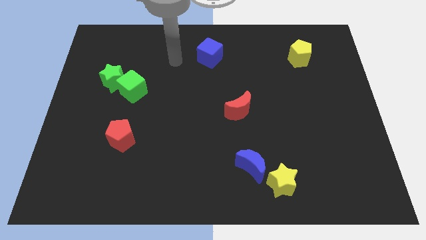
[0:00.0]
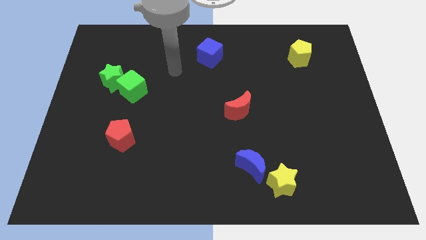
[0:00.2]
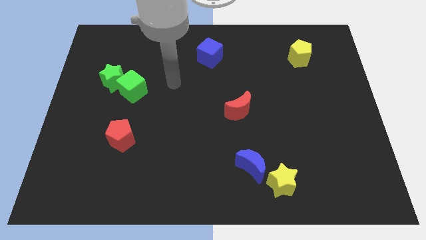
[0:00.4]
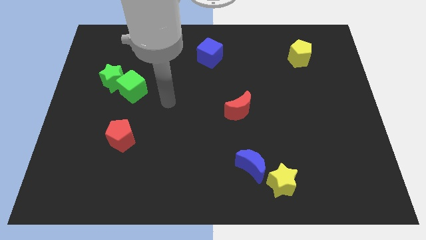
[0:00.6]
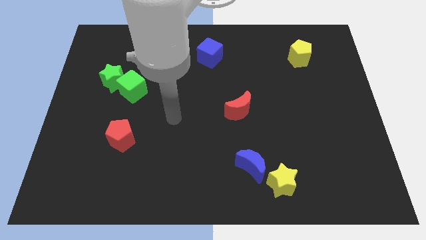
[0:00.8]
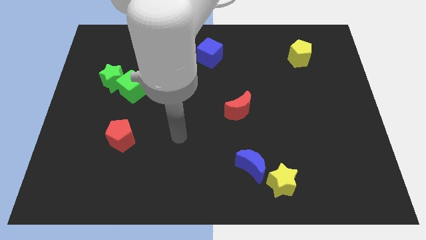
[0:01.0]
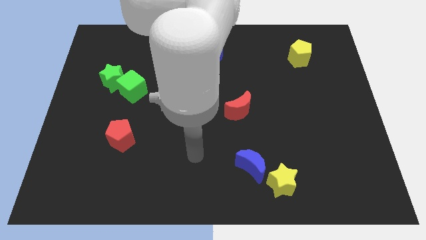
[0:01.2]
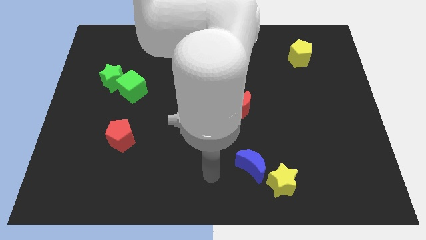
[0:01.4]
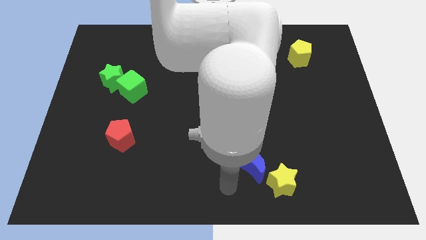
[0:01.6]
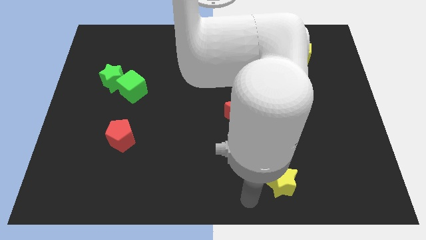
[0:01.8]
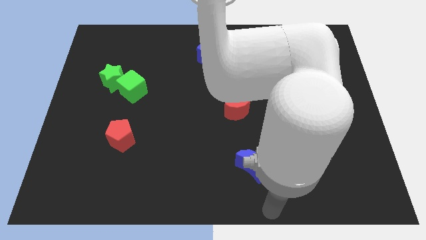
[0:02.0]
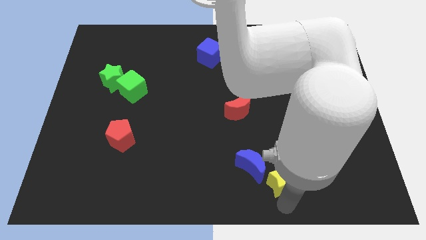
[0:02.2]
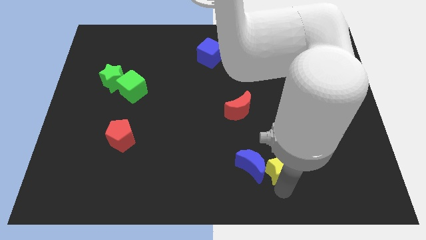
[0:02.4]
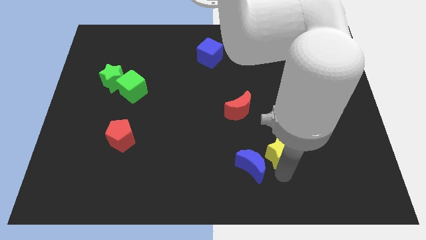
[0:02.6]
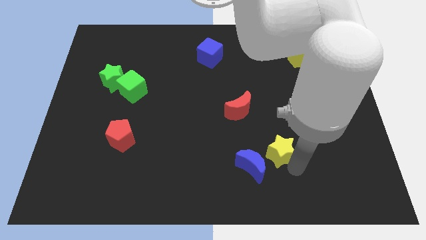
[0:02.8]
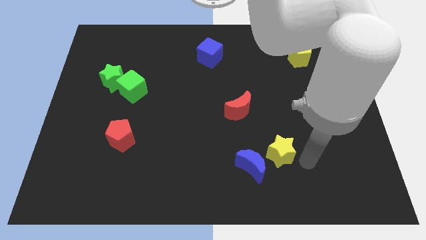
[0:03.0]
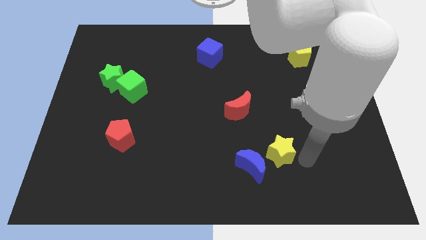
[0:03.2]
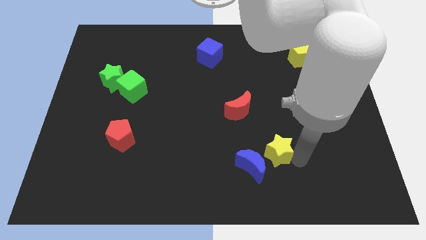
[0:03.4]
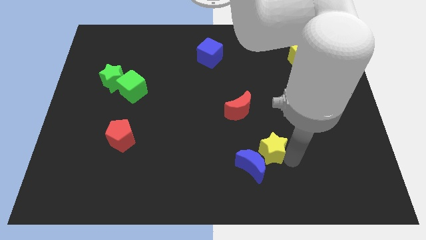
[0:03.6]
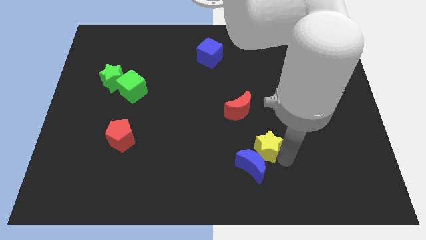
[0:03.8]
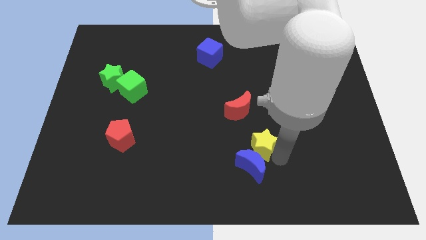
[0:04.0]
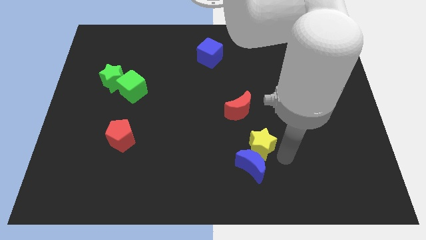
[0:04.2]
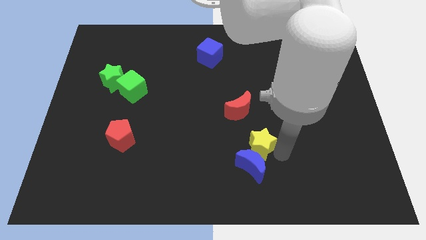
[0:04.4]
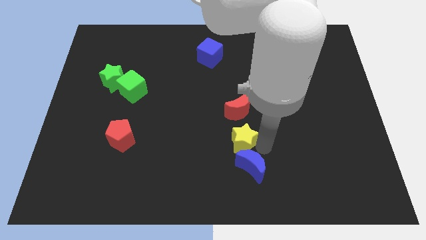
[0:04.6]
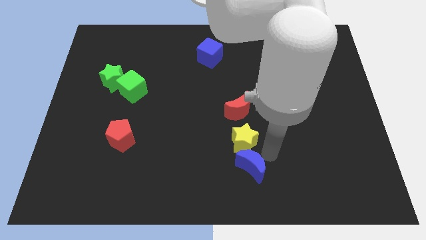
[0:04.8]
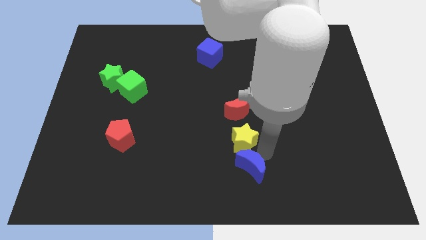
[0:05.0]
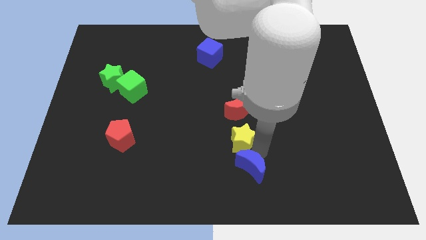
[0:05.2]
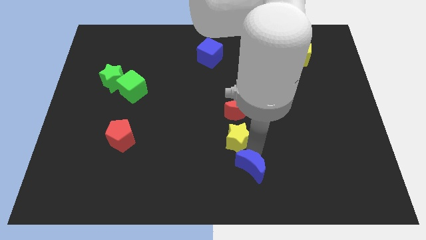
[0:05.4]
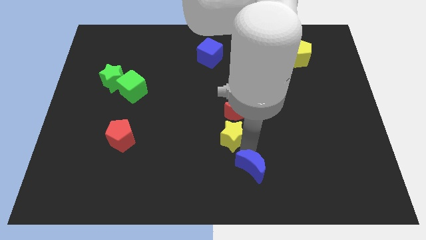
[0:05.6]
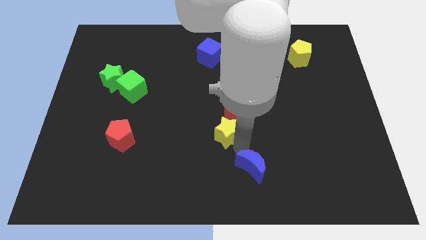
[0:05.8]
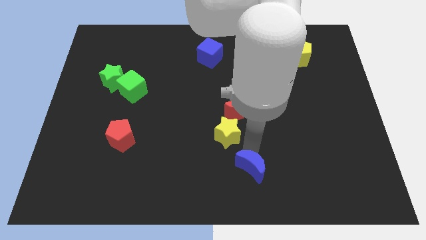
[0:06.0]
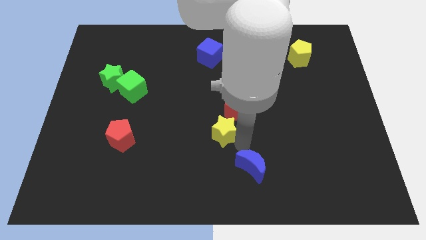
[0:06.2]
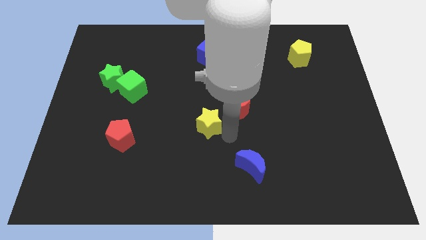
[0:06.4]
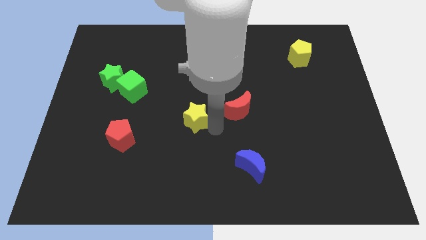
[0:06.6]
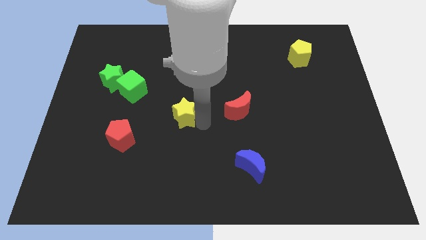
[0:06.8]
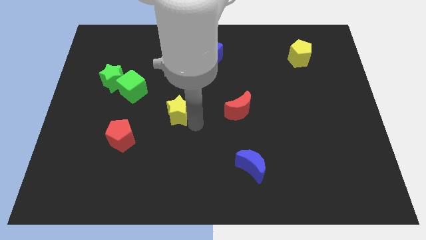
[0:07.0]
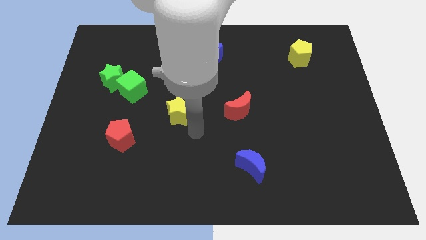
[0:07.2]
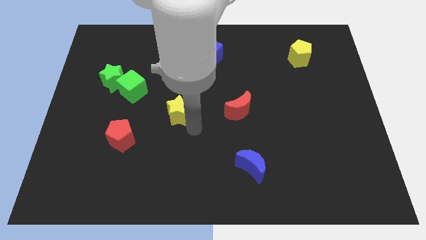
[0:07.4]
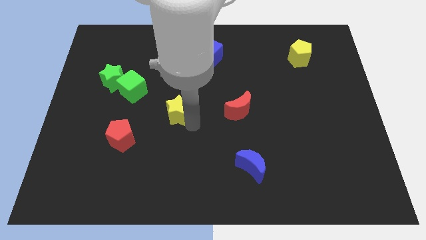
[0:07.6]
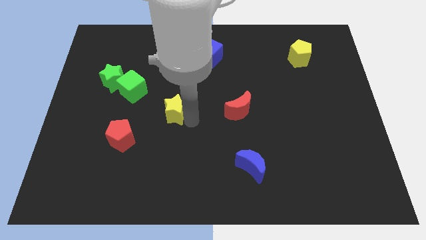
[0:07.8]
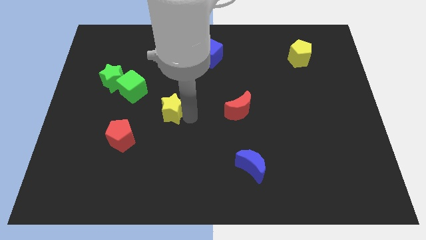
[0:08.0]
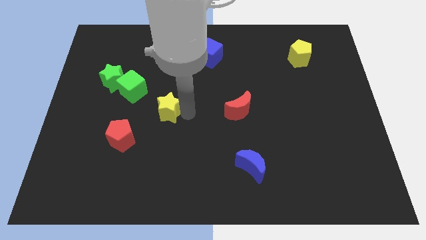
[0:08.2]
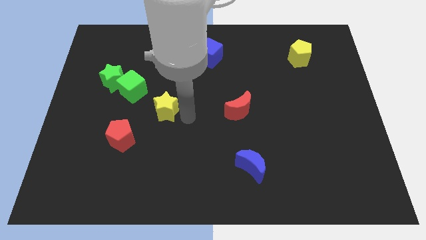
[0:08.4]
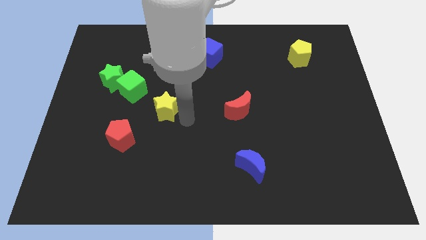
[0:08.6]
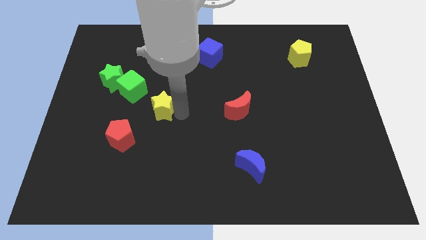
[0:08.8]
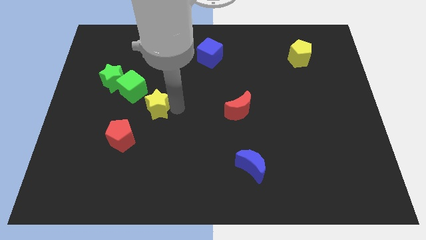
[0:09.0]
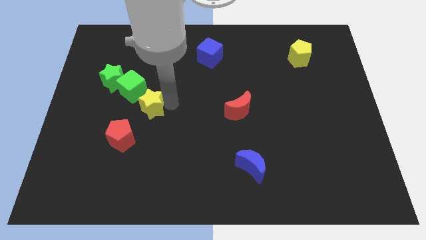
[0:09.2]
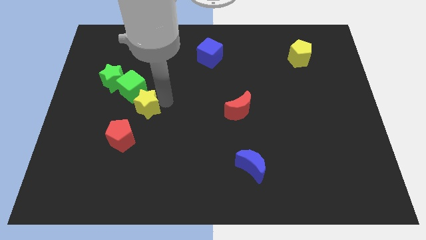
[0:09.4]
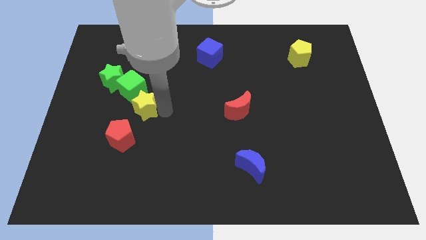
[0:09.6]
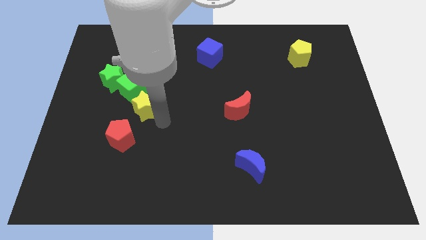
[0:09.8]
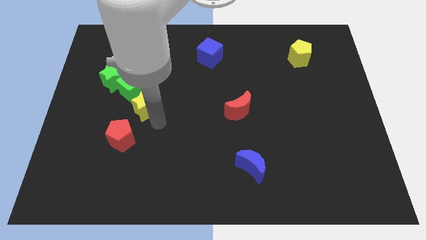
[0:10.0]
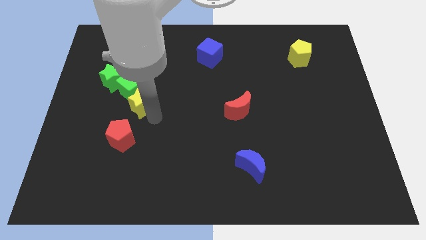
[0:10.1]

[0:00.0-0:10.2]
slide the yellow star next to the green cube

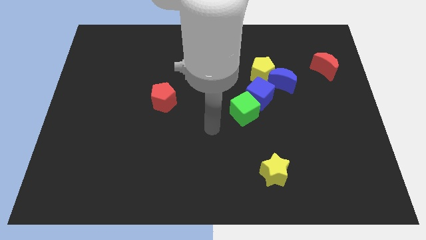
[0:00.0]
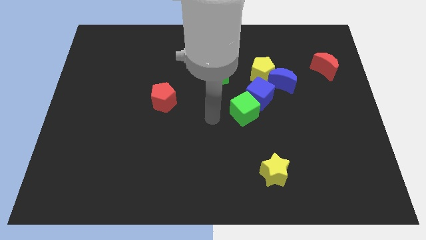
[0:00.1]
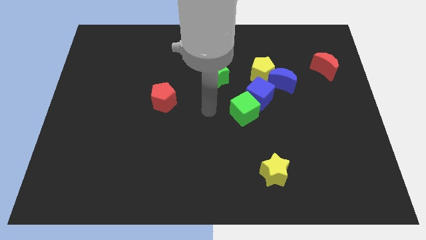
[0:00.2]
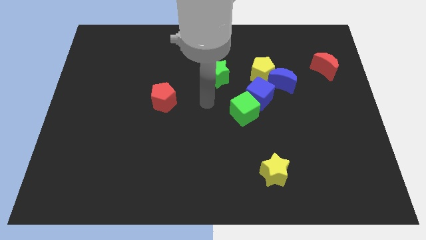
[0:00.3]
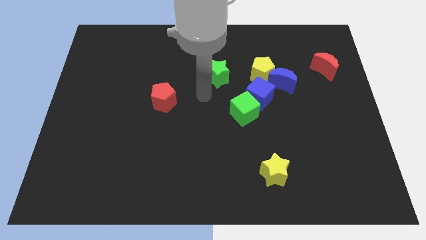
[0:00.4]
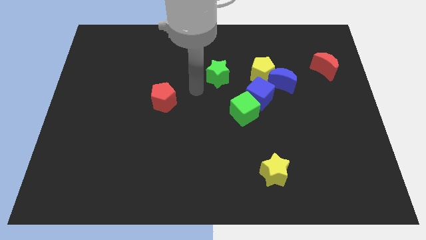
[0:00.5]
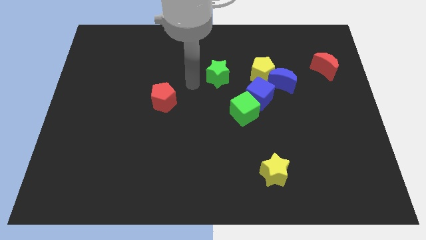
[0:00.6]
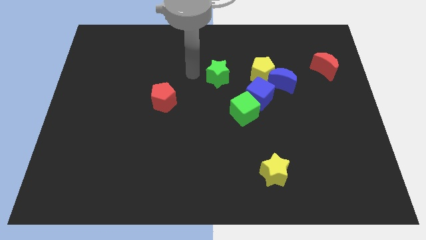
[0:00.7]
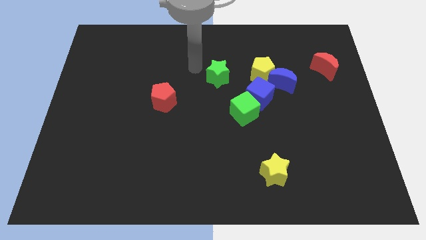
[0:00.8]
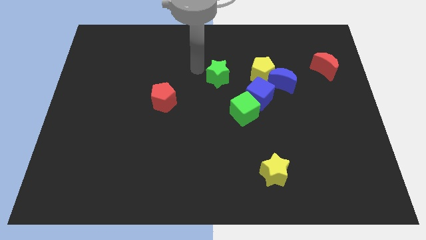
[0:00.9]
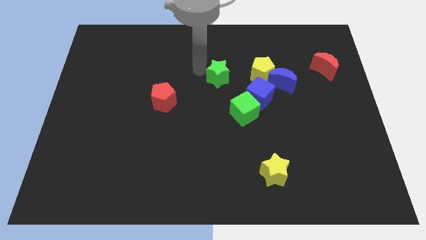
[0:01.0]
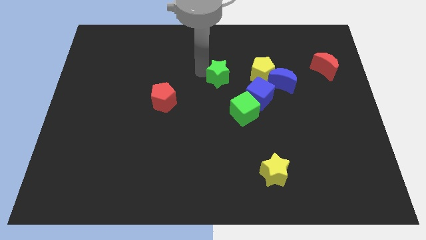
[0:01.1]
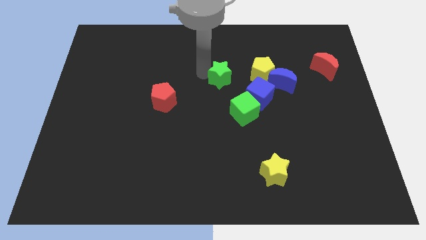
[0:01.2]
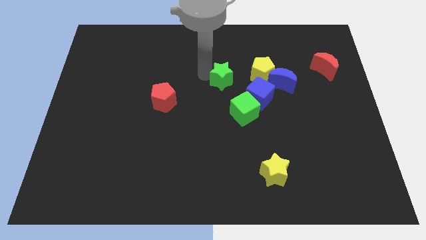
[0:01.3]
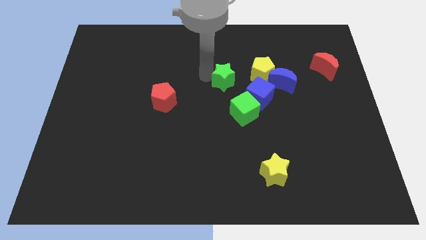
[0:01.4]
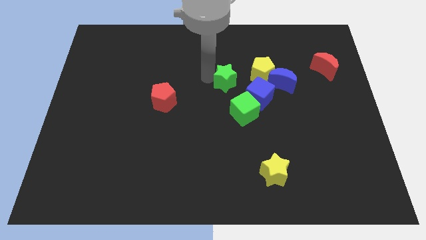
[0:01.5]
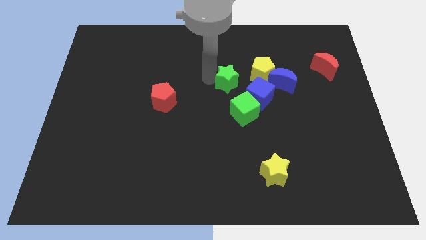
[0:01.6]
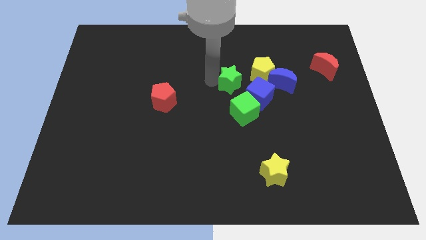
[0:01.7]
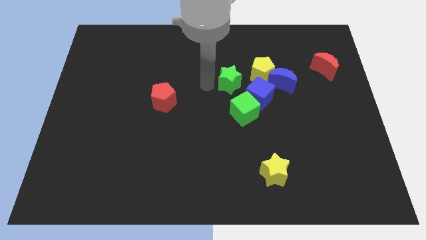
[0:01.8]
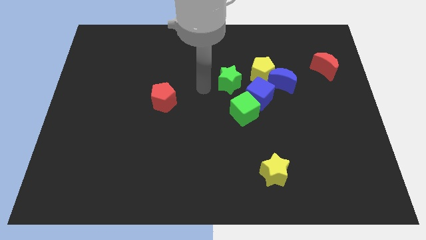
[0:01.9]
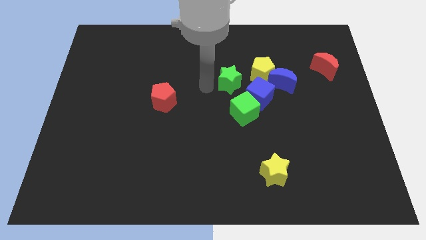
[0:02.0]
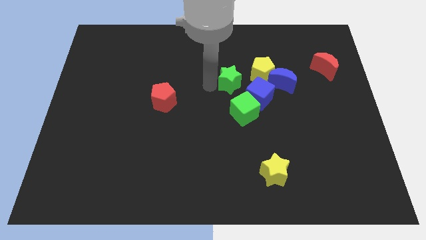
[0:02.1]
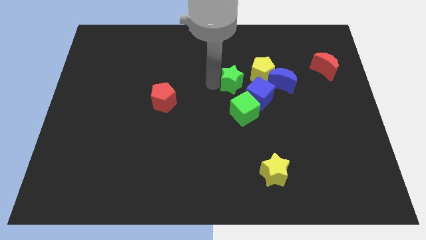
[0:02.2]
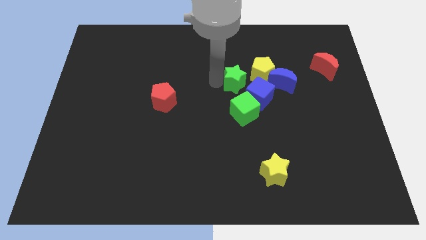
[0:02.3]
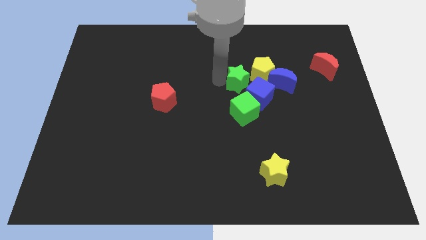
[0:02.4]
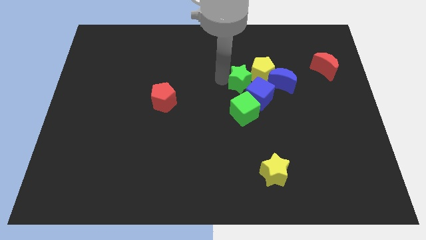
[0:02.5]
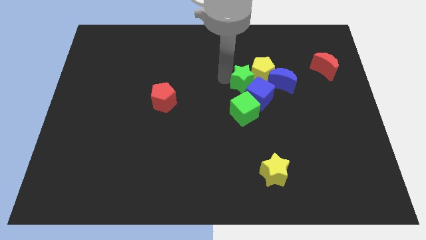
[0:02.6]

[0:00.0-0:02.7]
move the green star to the yellow pentagon
